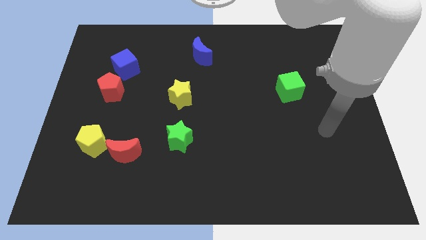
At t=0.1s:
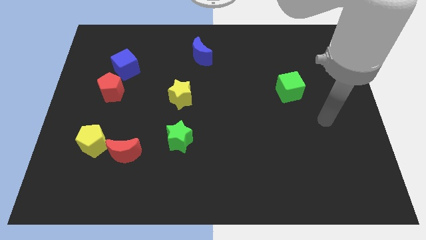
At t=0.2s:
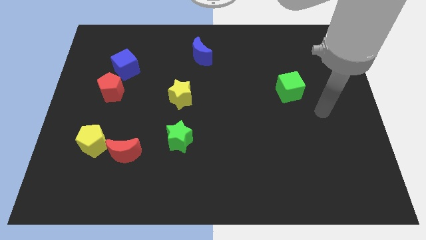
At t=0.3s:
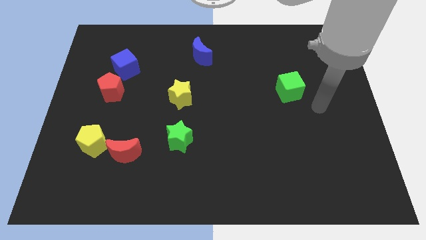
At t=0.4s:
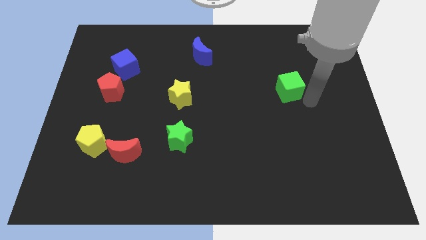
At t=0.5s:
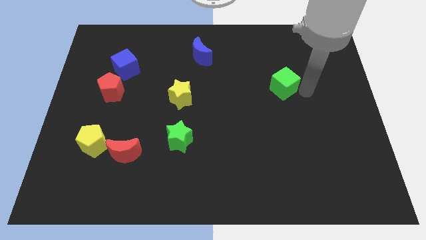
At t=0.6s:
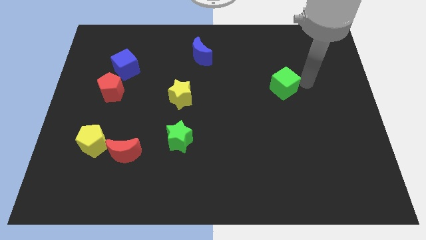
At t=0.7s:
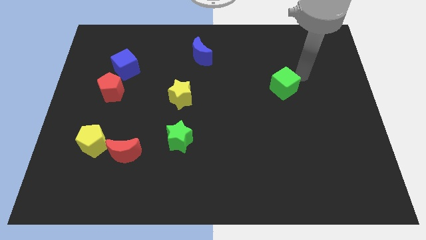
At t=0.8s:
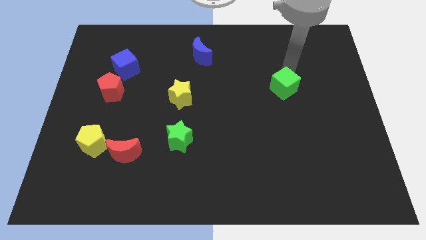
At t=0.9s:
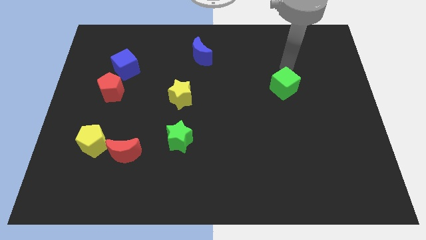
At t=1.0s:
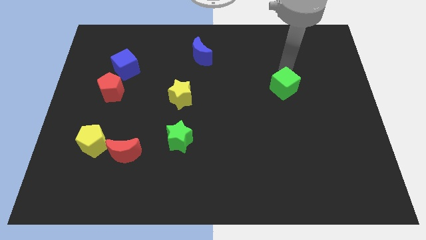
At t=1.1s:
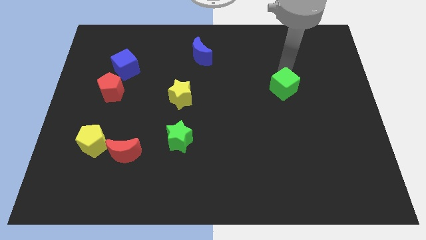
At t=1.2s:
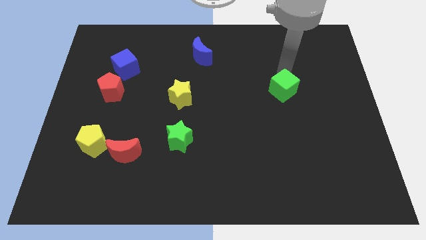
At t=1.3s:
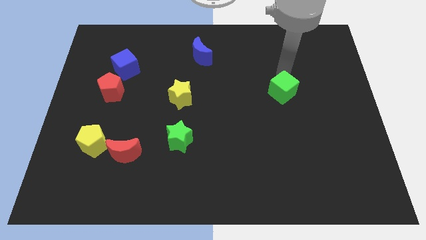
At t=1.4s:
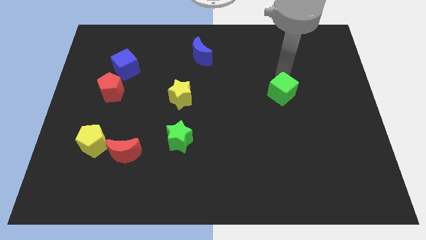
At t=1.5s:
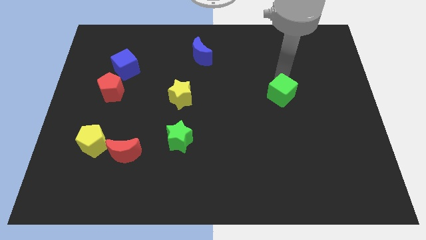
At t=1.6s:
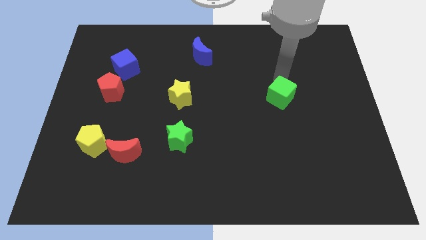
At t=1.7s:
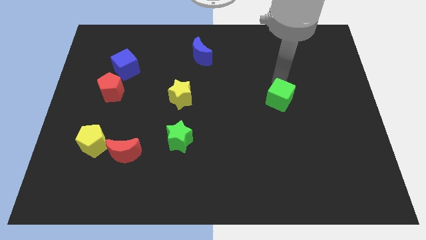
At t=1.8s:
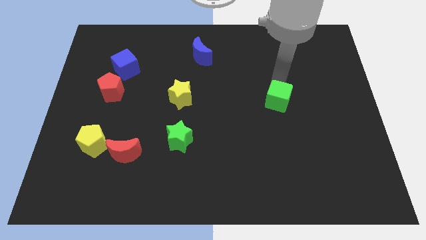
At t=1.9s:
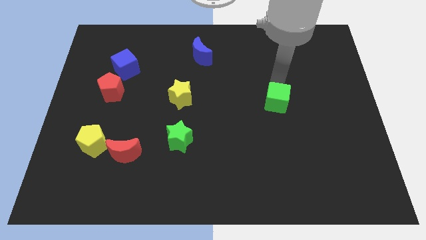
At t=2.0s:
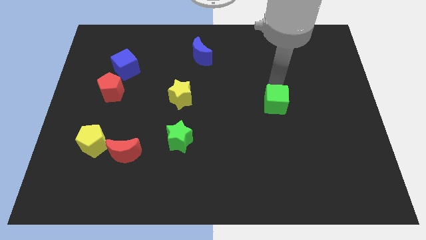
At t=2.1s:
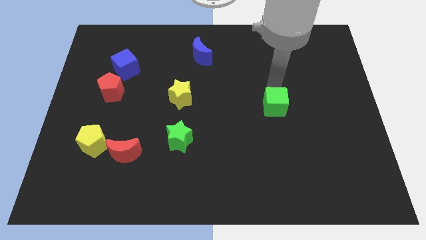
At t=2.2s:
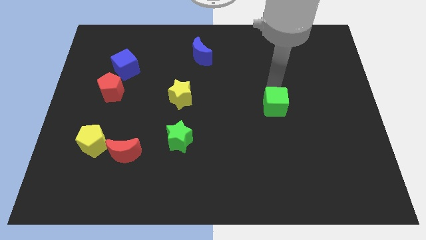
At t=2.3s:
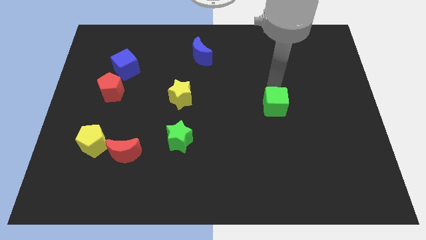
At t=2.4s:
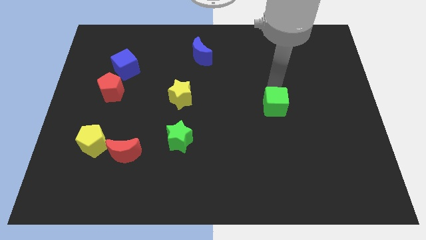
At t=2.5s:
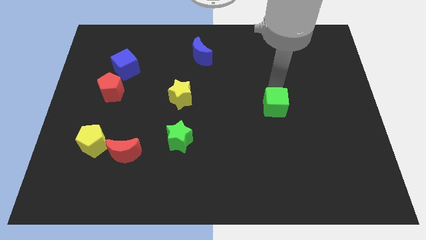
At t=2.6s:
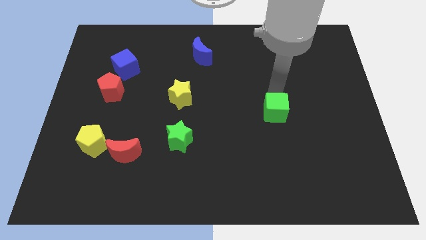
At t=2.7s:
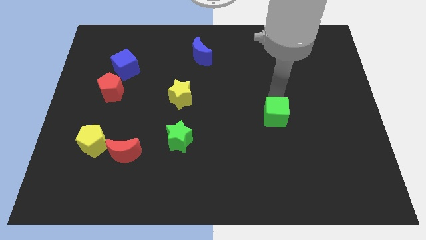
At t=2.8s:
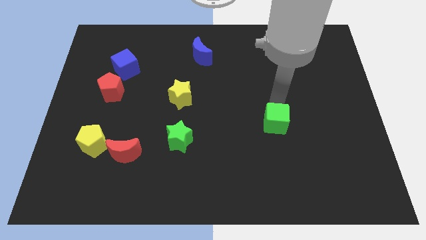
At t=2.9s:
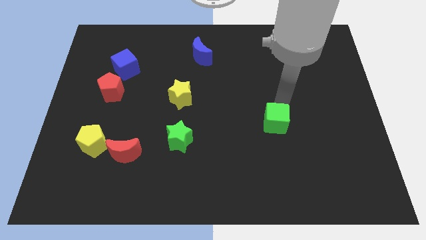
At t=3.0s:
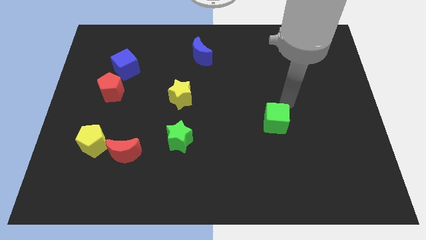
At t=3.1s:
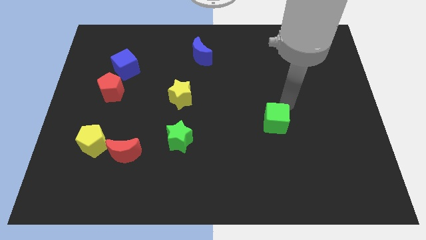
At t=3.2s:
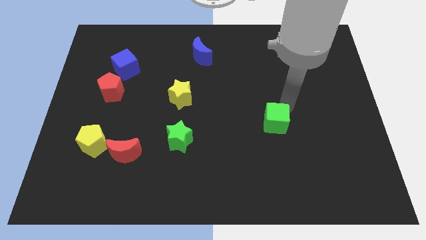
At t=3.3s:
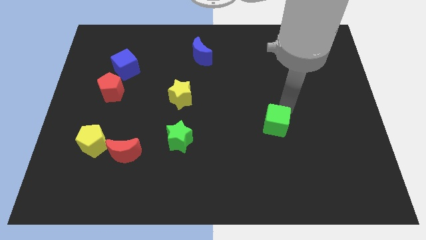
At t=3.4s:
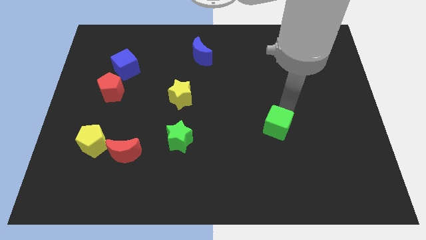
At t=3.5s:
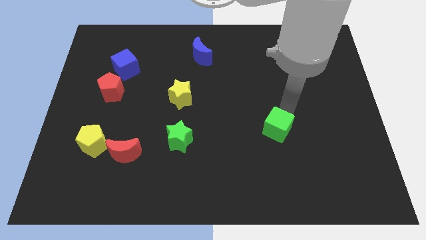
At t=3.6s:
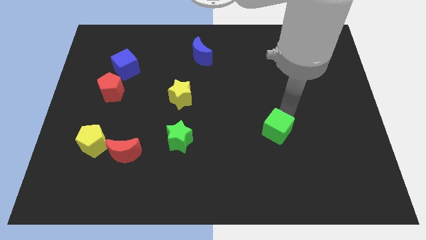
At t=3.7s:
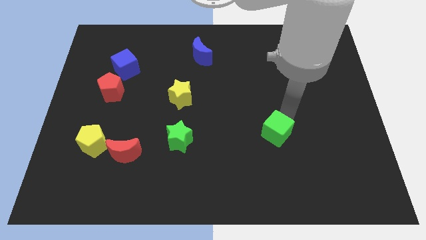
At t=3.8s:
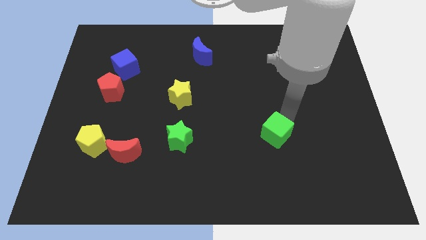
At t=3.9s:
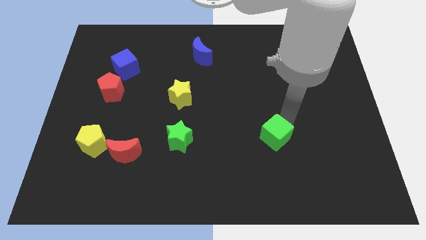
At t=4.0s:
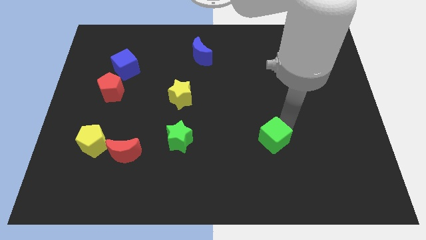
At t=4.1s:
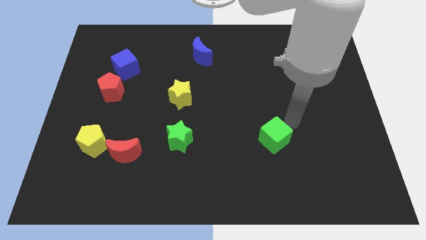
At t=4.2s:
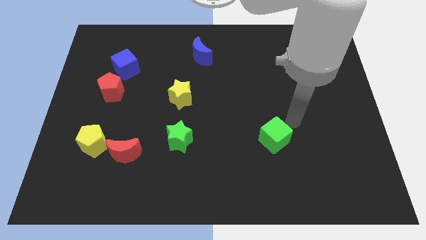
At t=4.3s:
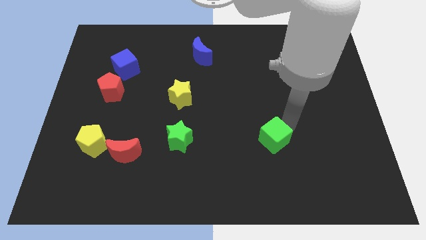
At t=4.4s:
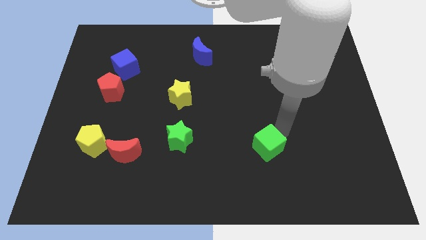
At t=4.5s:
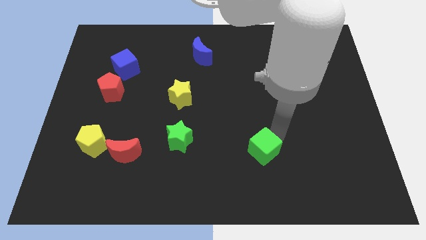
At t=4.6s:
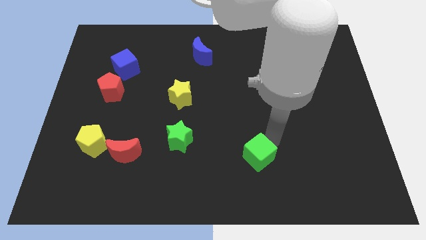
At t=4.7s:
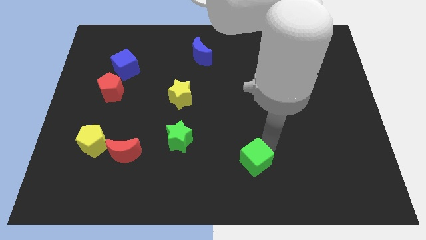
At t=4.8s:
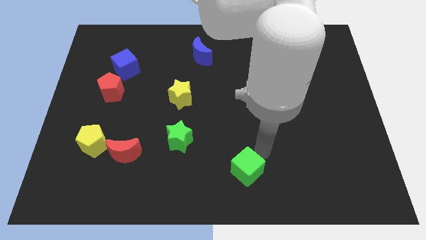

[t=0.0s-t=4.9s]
push the green cube to the bottom

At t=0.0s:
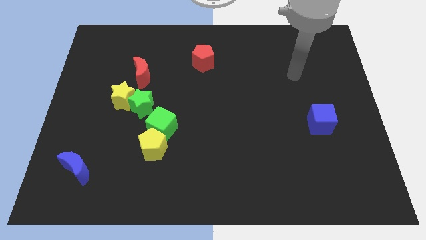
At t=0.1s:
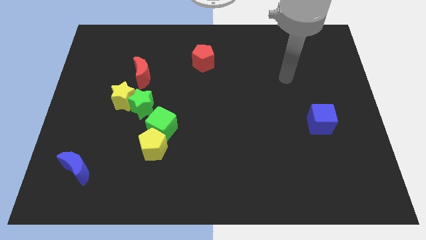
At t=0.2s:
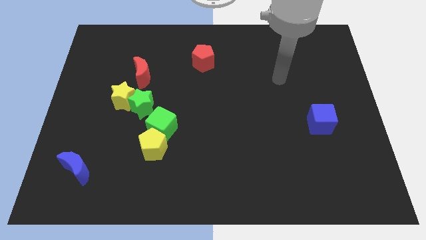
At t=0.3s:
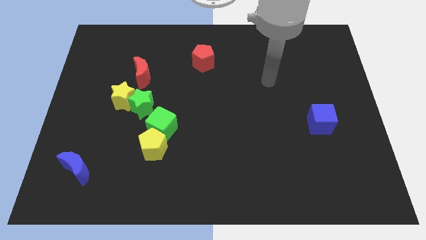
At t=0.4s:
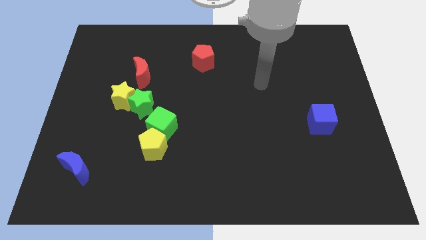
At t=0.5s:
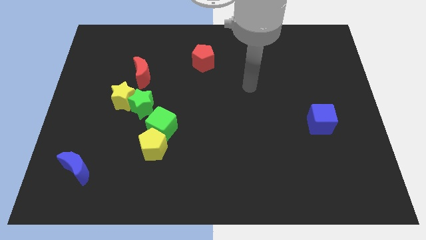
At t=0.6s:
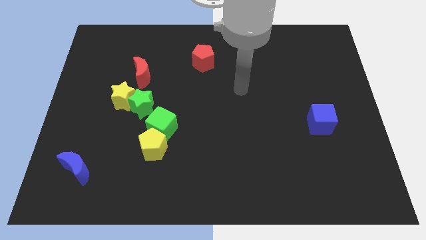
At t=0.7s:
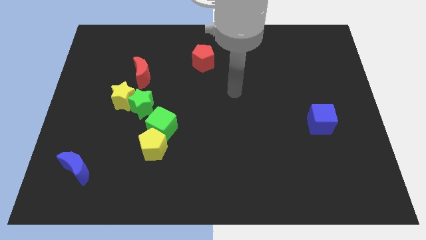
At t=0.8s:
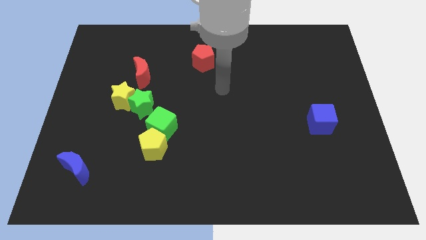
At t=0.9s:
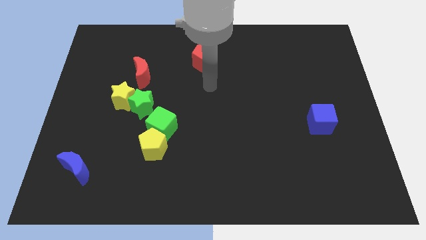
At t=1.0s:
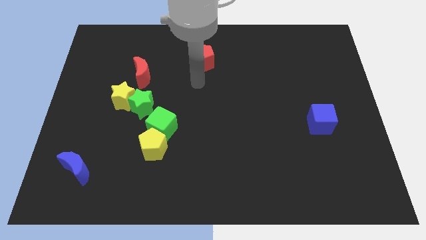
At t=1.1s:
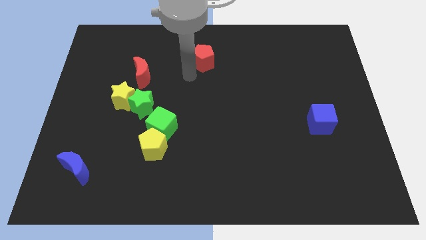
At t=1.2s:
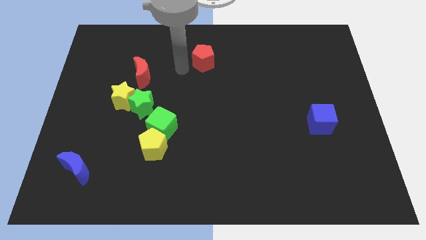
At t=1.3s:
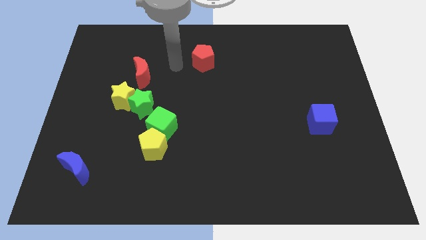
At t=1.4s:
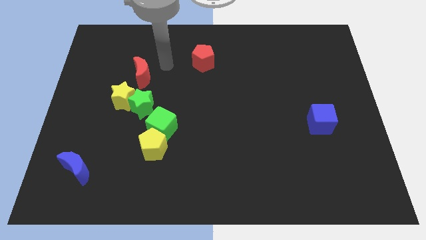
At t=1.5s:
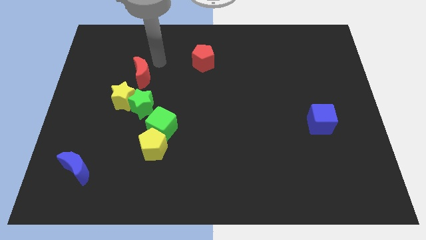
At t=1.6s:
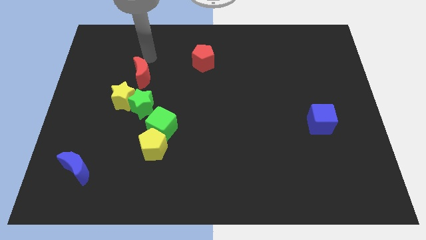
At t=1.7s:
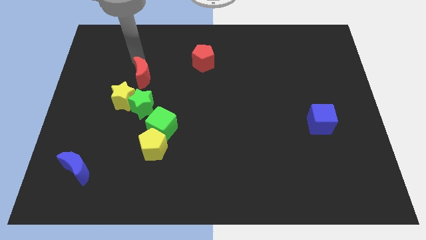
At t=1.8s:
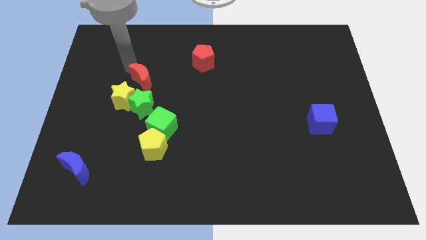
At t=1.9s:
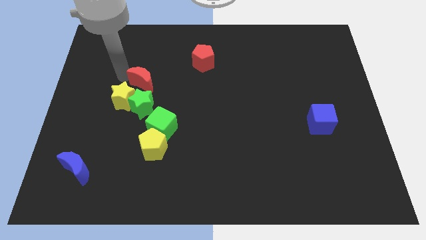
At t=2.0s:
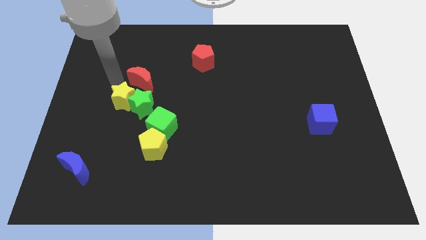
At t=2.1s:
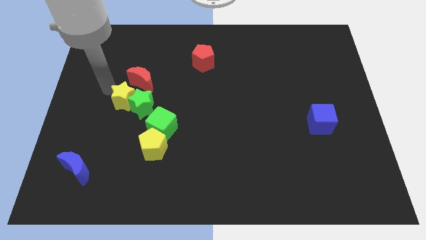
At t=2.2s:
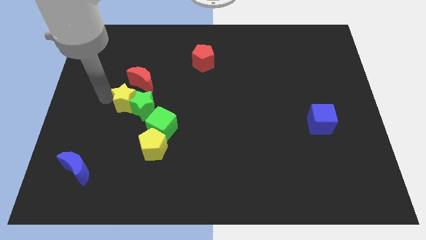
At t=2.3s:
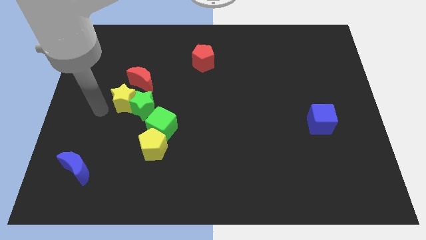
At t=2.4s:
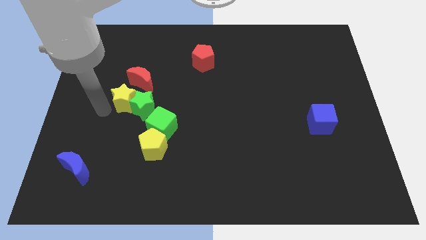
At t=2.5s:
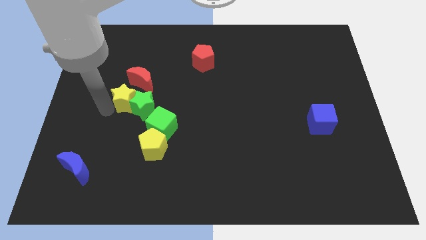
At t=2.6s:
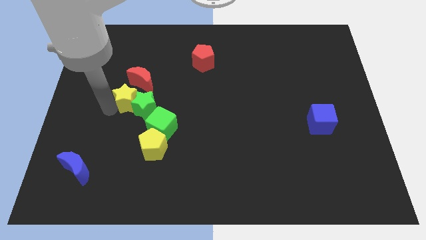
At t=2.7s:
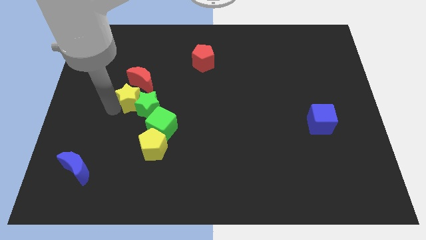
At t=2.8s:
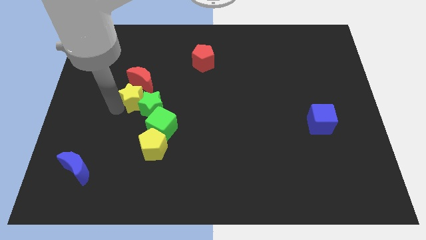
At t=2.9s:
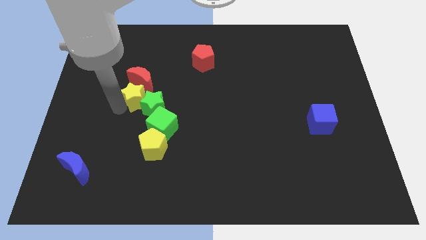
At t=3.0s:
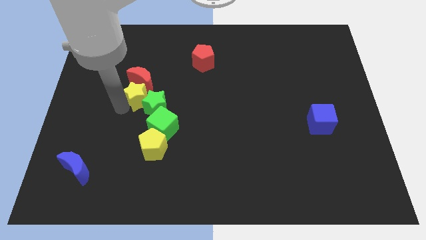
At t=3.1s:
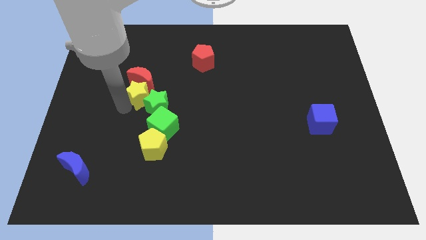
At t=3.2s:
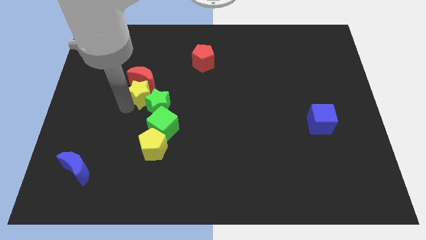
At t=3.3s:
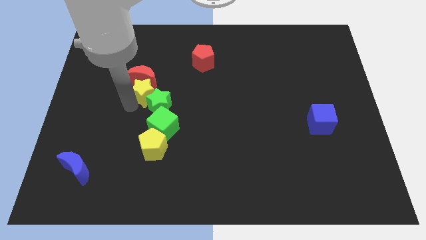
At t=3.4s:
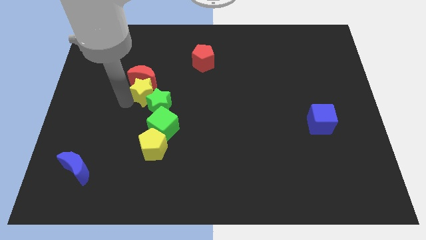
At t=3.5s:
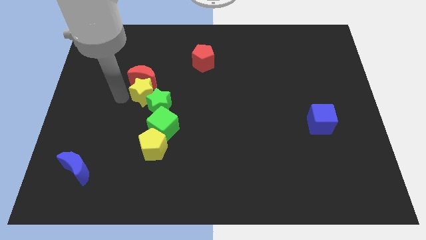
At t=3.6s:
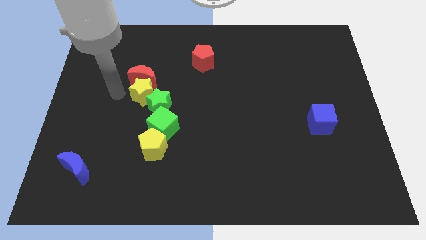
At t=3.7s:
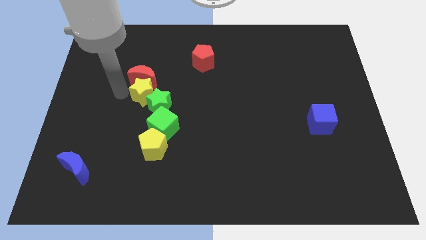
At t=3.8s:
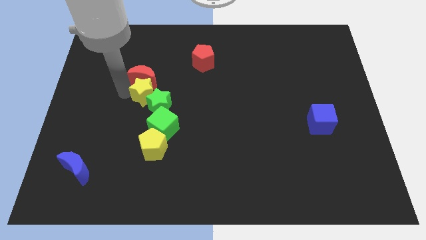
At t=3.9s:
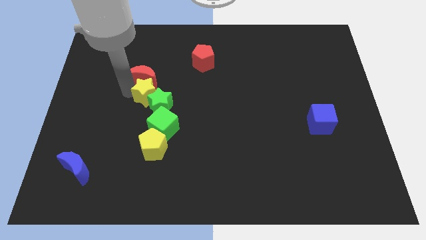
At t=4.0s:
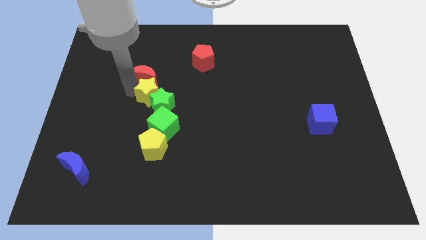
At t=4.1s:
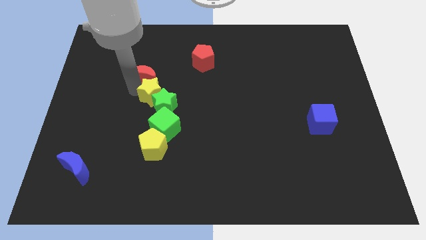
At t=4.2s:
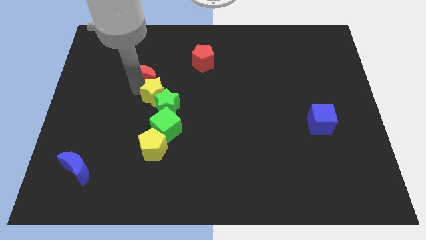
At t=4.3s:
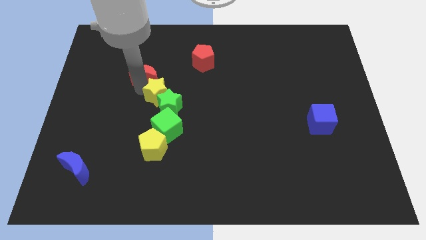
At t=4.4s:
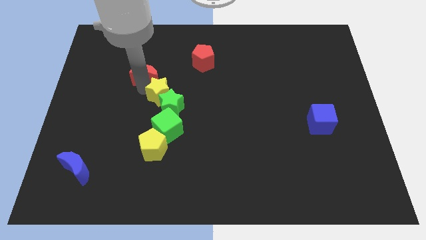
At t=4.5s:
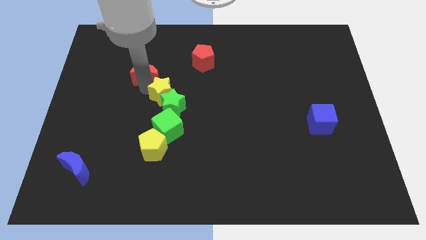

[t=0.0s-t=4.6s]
push the yellow star to the center
